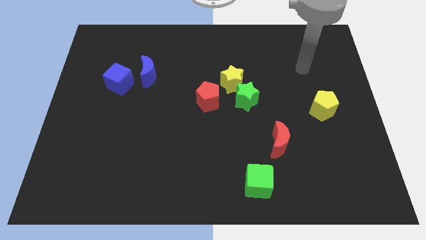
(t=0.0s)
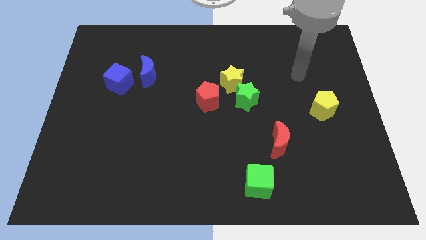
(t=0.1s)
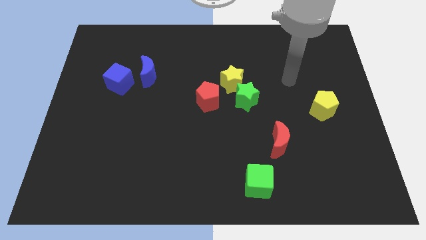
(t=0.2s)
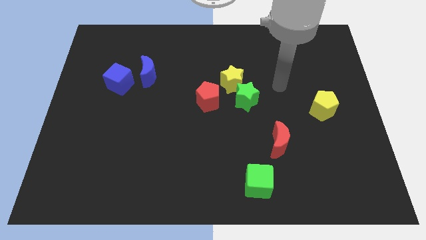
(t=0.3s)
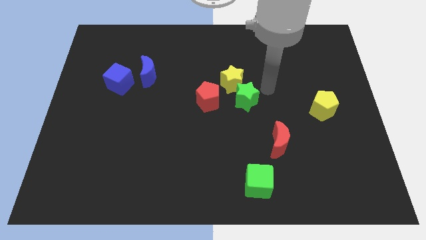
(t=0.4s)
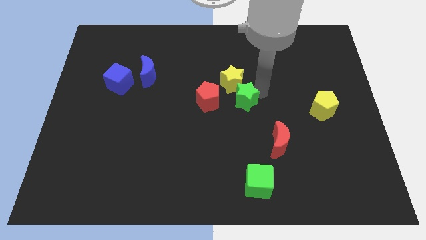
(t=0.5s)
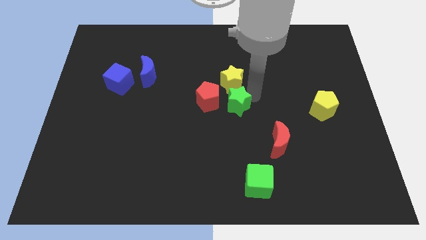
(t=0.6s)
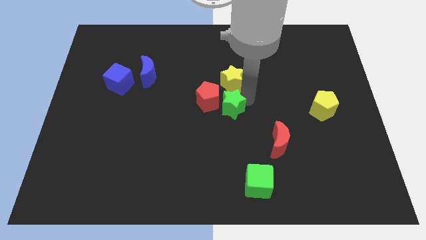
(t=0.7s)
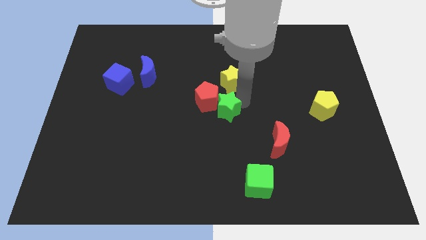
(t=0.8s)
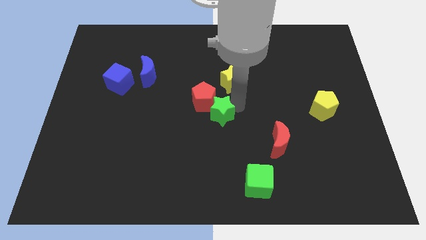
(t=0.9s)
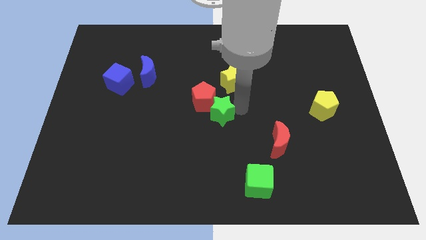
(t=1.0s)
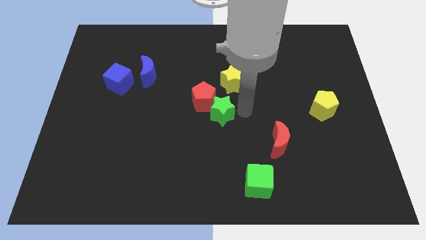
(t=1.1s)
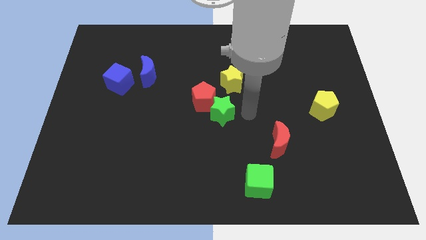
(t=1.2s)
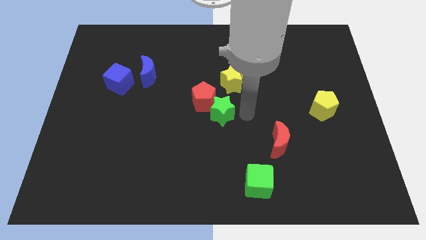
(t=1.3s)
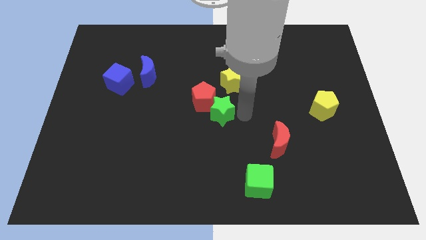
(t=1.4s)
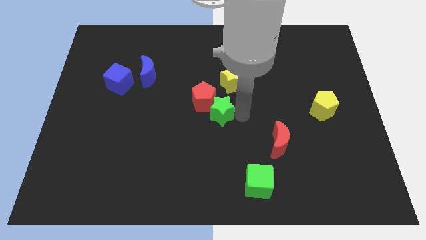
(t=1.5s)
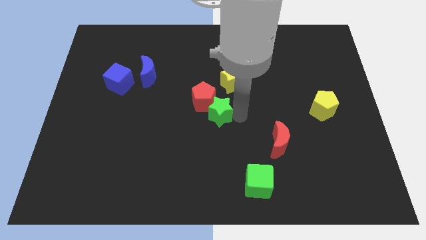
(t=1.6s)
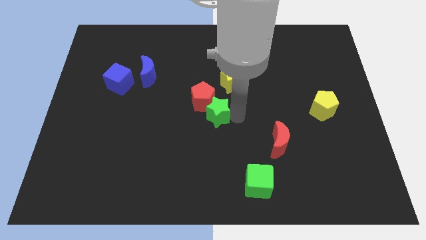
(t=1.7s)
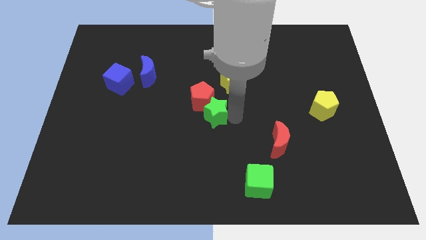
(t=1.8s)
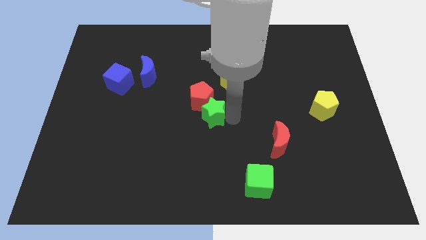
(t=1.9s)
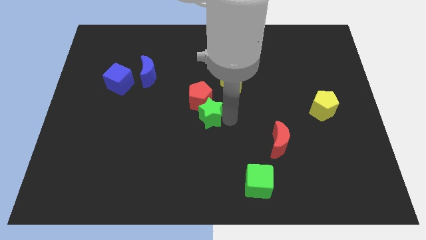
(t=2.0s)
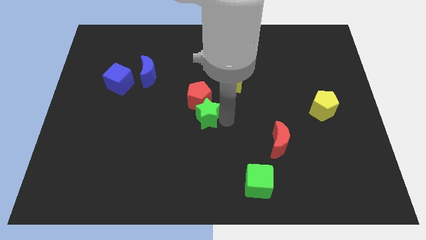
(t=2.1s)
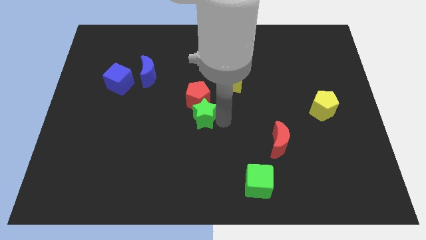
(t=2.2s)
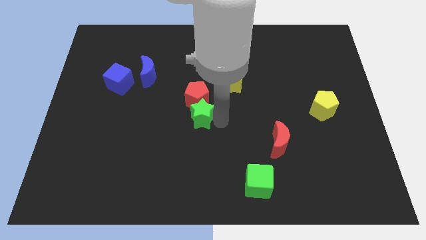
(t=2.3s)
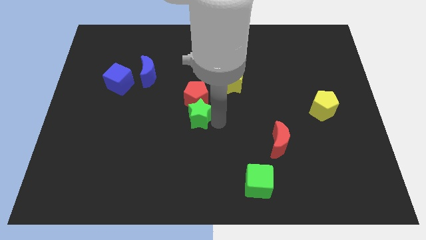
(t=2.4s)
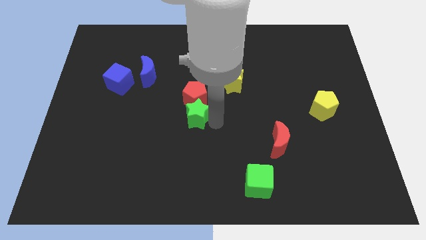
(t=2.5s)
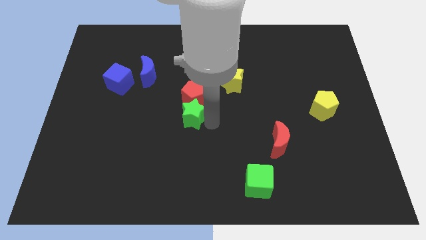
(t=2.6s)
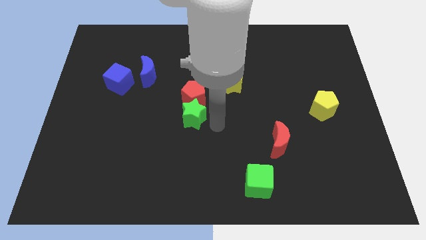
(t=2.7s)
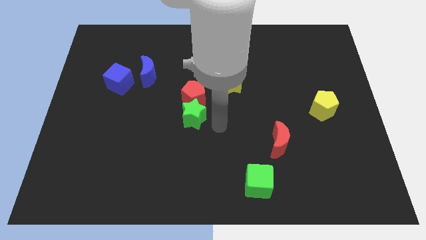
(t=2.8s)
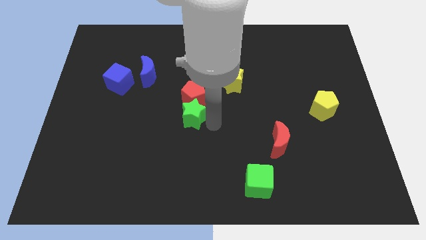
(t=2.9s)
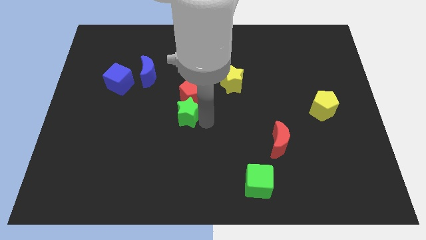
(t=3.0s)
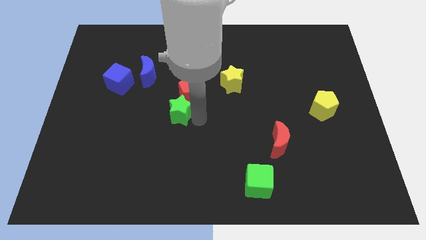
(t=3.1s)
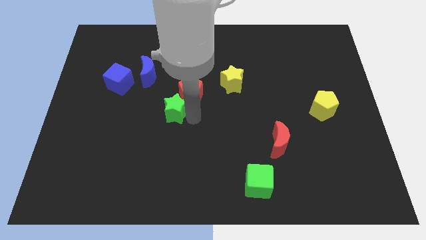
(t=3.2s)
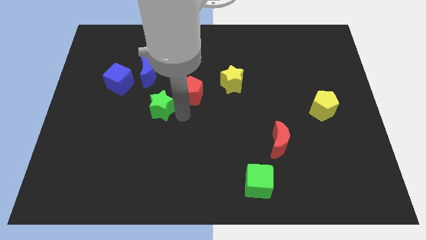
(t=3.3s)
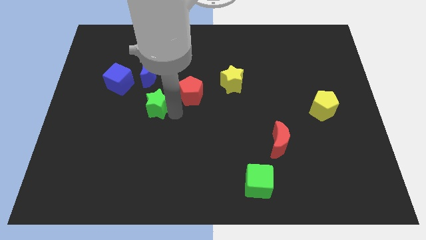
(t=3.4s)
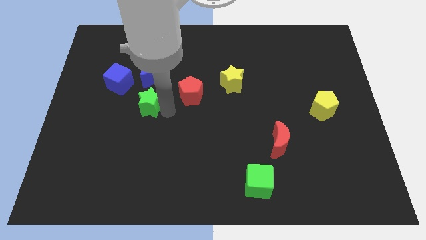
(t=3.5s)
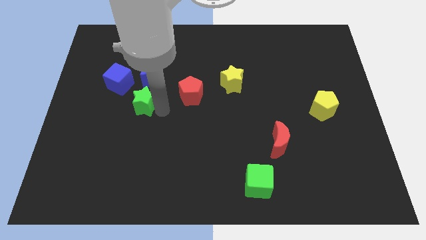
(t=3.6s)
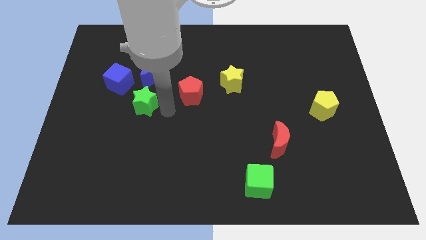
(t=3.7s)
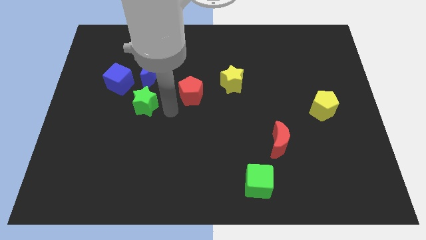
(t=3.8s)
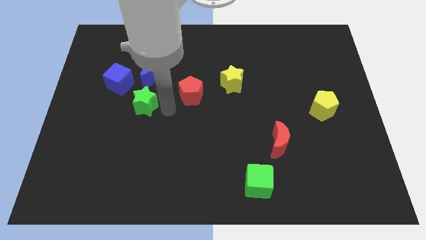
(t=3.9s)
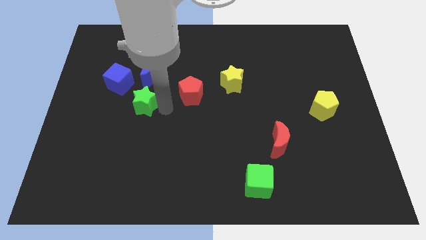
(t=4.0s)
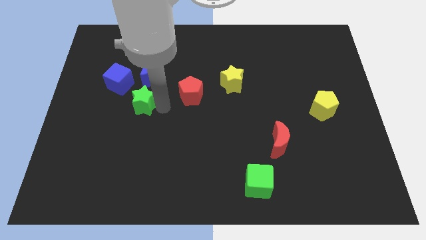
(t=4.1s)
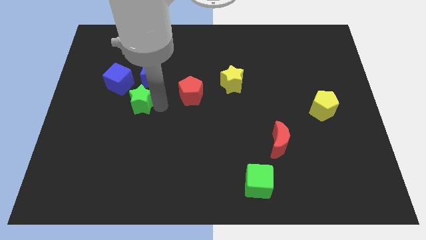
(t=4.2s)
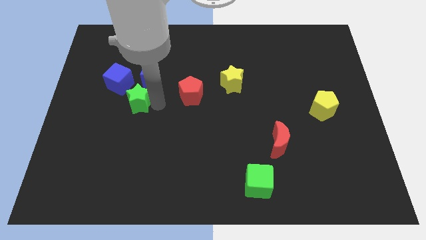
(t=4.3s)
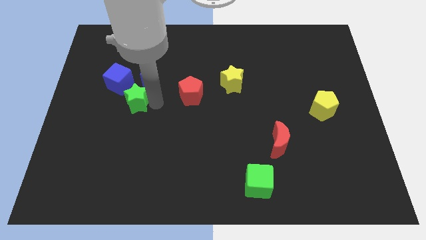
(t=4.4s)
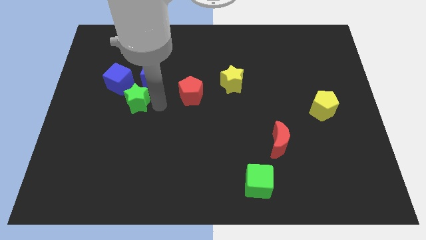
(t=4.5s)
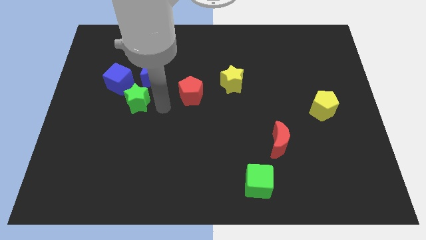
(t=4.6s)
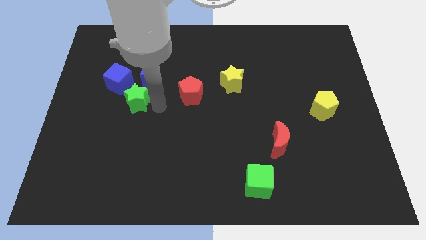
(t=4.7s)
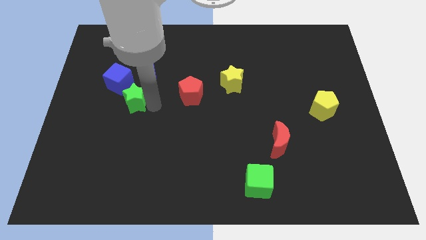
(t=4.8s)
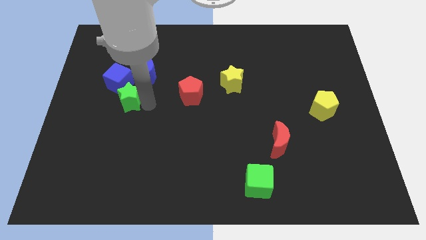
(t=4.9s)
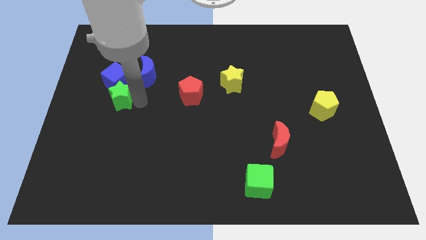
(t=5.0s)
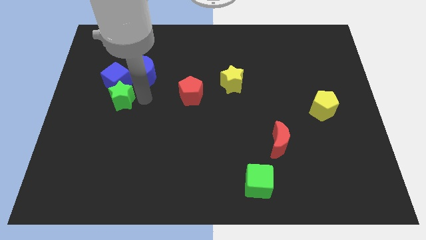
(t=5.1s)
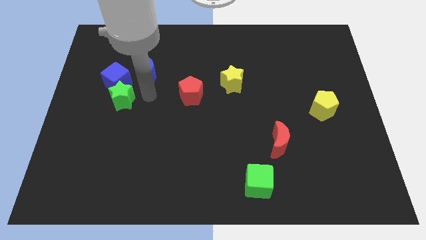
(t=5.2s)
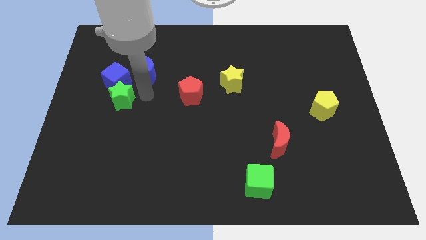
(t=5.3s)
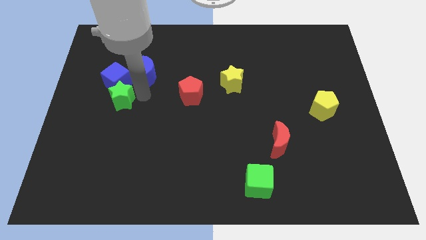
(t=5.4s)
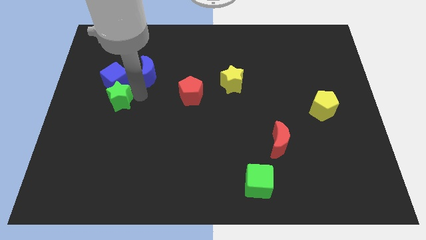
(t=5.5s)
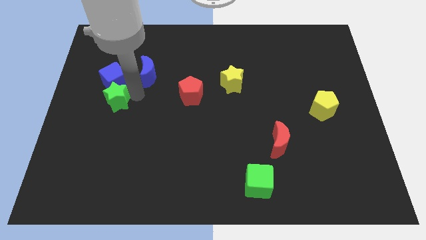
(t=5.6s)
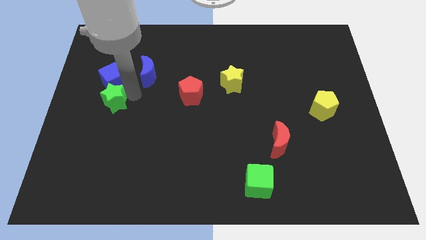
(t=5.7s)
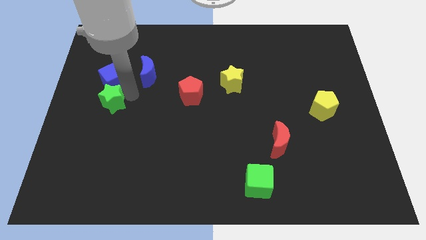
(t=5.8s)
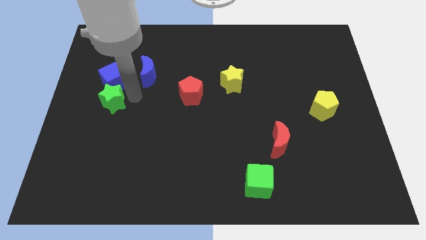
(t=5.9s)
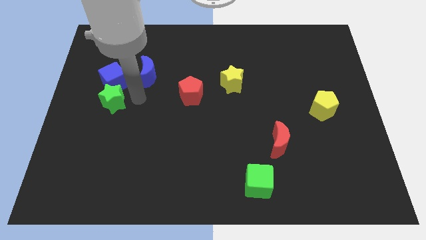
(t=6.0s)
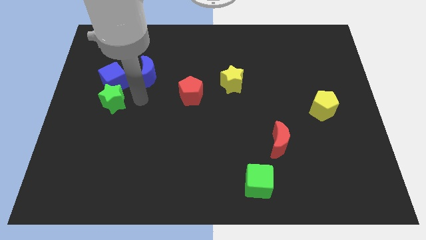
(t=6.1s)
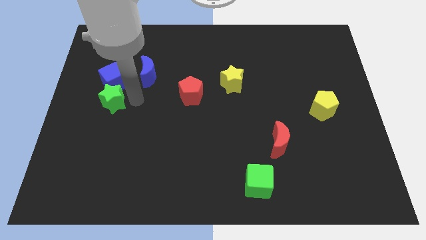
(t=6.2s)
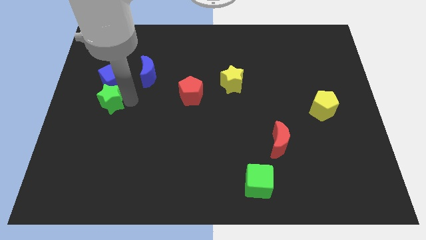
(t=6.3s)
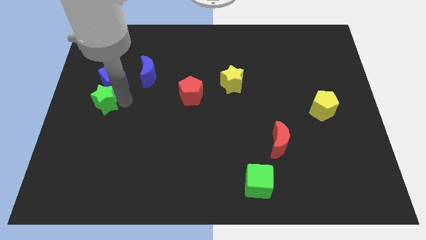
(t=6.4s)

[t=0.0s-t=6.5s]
move the green star to the center left

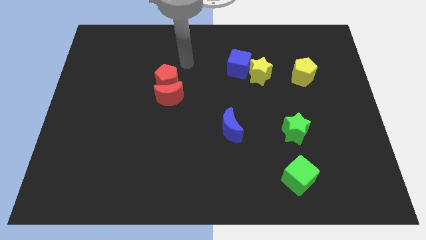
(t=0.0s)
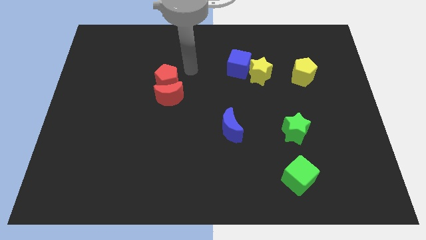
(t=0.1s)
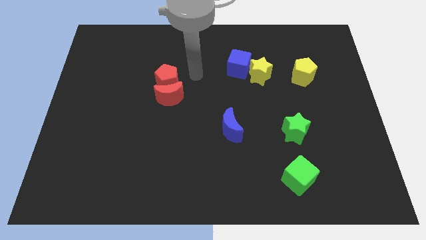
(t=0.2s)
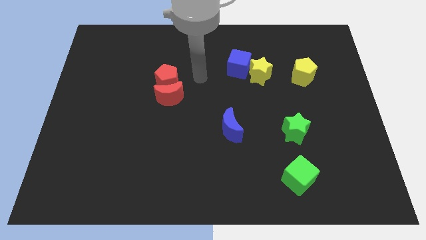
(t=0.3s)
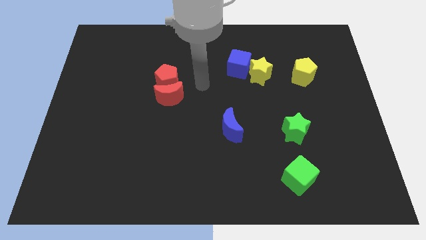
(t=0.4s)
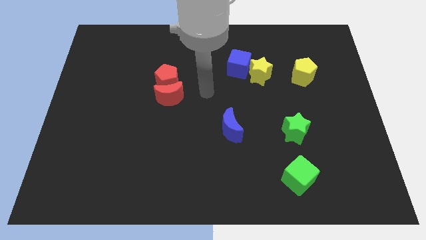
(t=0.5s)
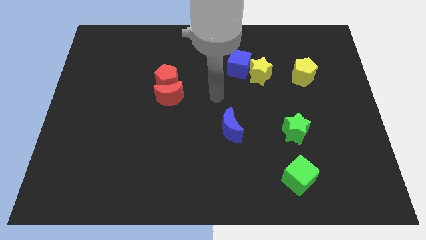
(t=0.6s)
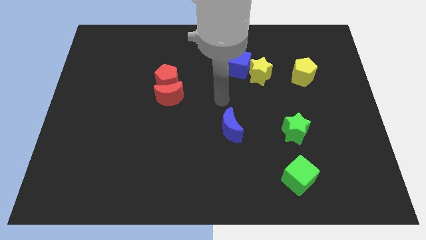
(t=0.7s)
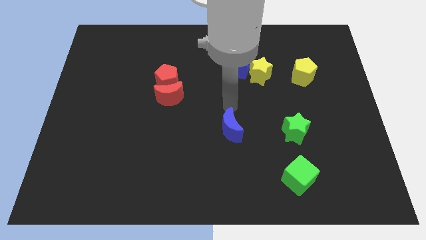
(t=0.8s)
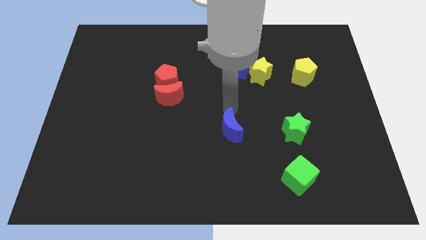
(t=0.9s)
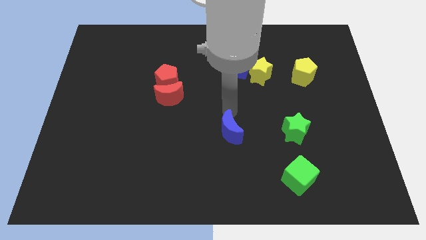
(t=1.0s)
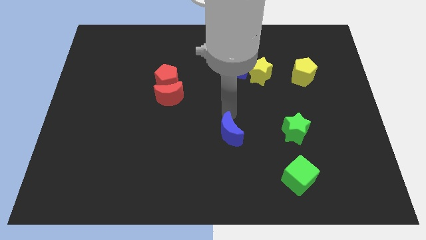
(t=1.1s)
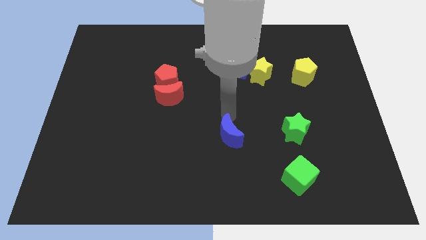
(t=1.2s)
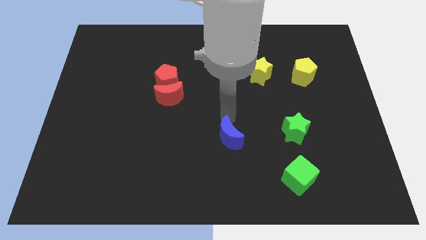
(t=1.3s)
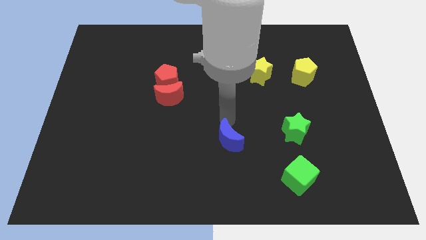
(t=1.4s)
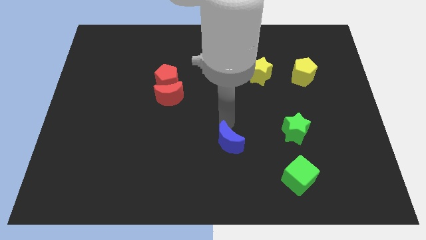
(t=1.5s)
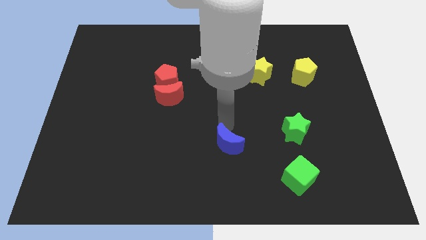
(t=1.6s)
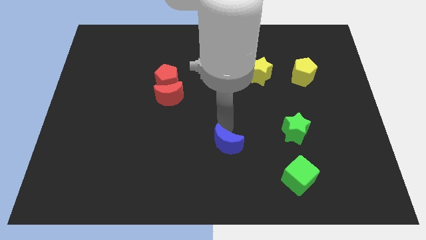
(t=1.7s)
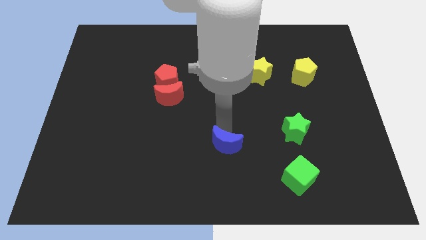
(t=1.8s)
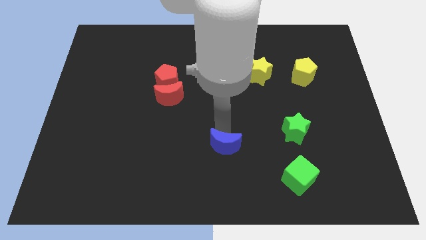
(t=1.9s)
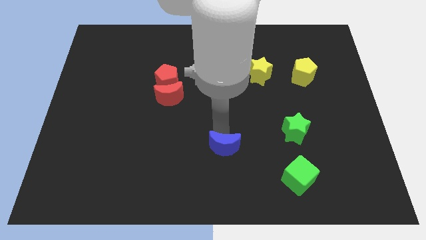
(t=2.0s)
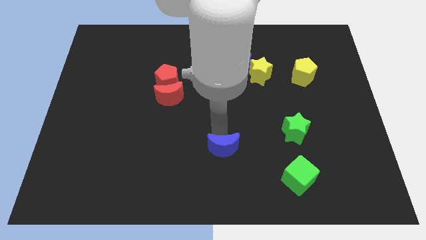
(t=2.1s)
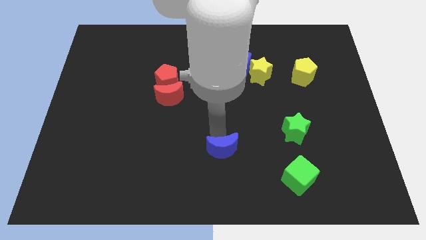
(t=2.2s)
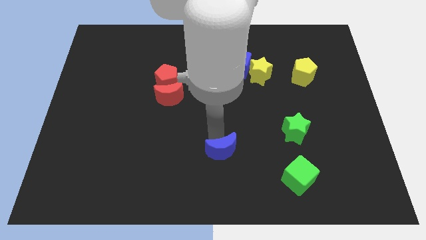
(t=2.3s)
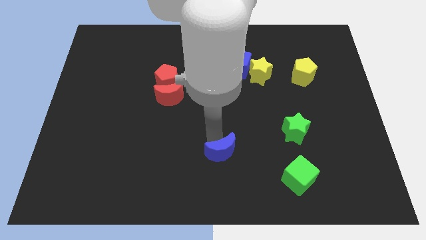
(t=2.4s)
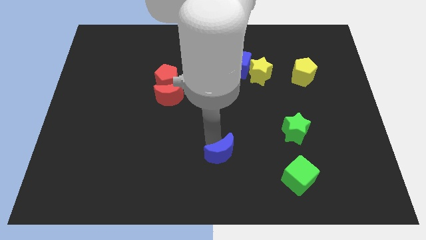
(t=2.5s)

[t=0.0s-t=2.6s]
move the blue moon to the bottom side
